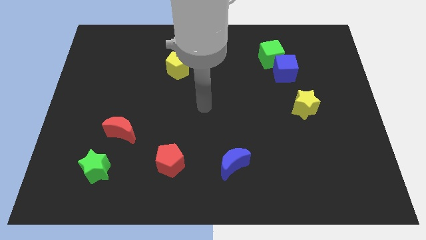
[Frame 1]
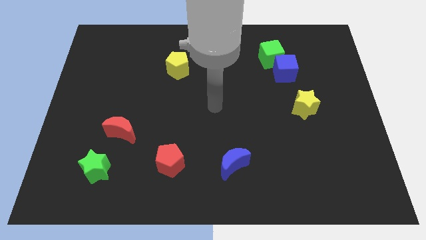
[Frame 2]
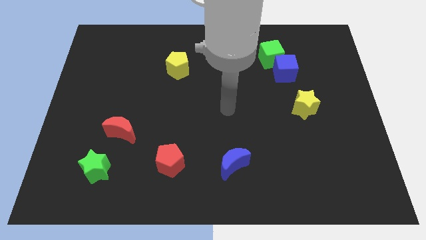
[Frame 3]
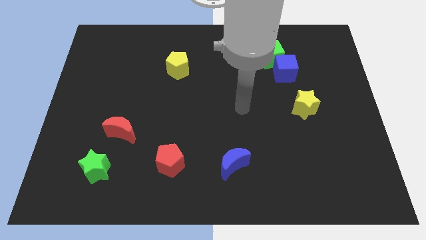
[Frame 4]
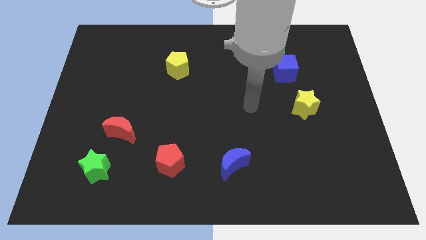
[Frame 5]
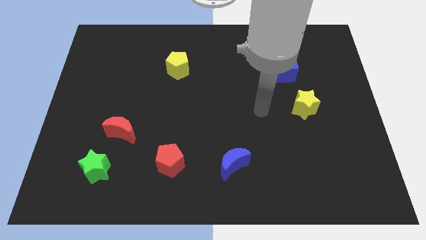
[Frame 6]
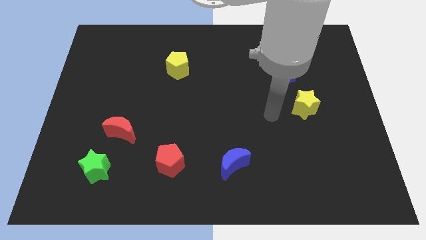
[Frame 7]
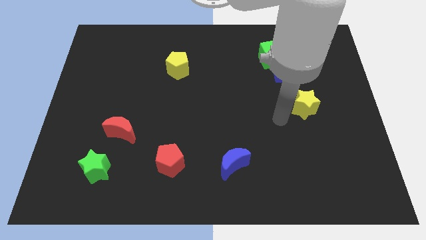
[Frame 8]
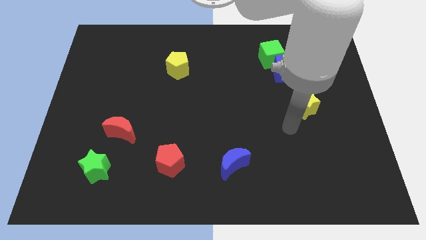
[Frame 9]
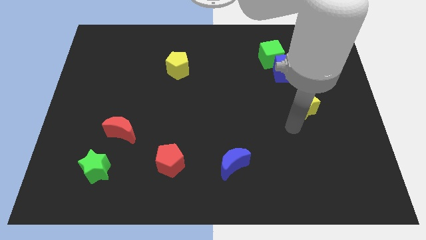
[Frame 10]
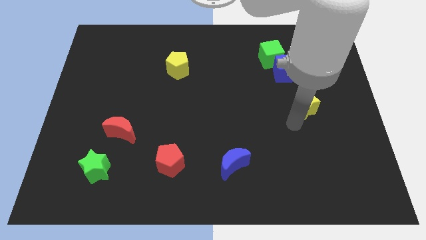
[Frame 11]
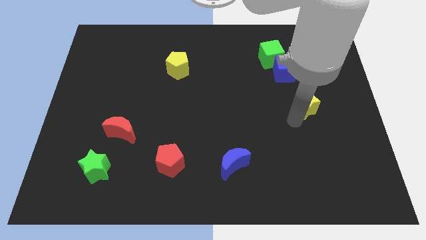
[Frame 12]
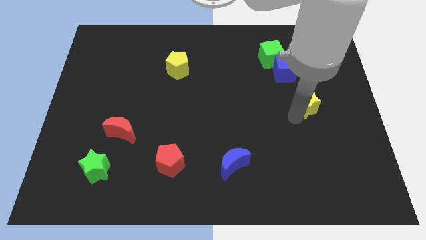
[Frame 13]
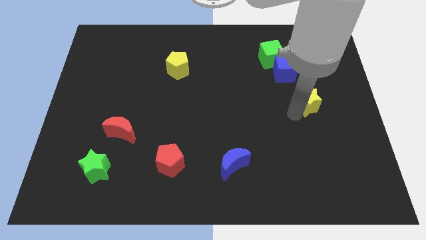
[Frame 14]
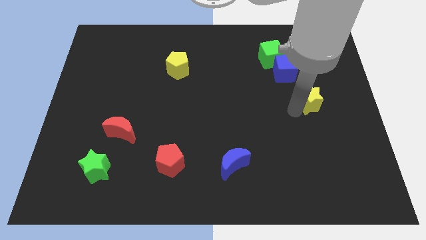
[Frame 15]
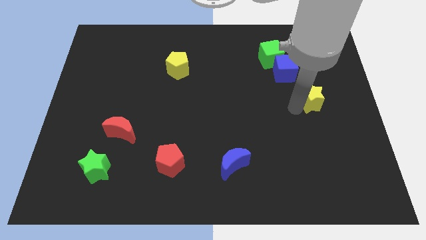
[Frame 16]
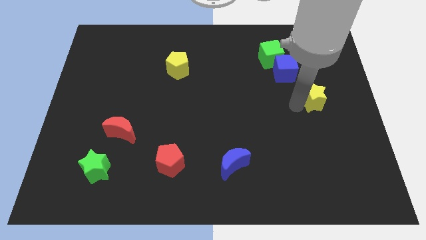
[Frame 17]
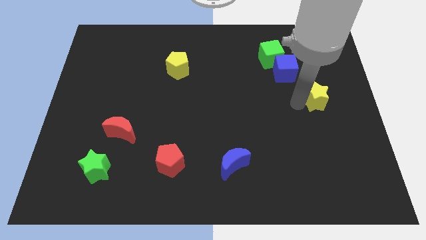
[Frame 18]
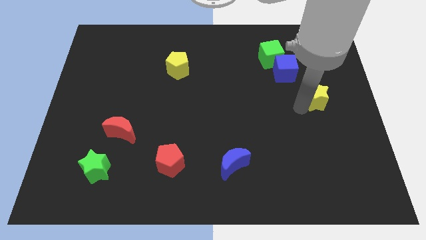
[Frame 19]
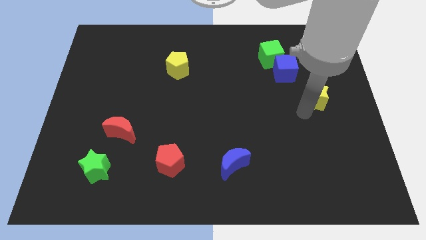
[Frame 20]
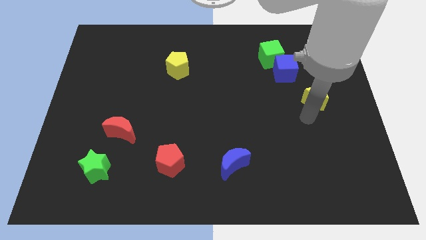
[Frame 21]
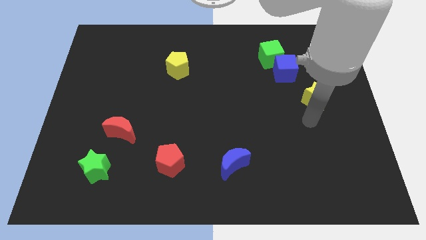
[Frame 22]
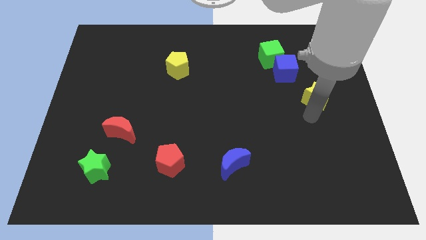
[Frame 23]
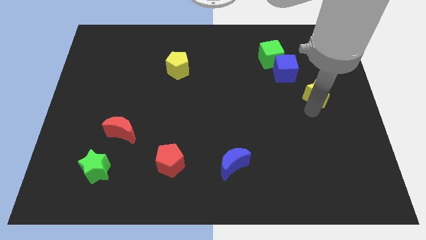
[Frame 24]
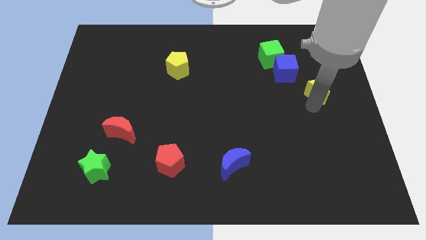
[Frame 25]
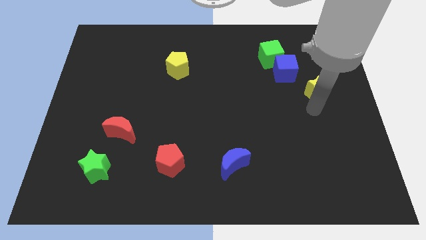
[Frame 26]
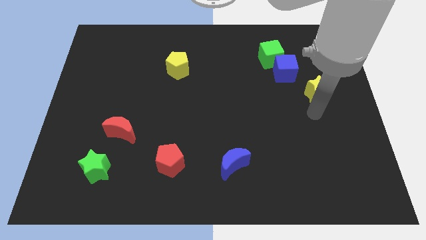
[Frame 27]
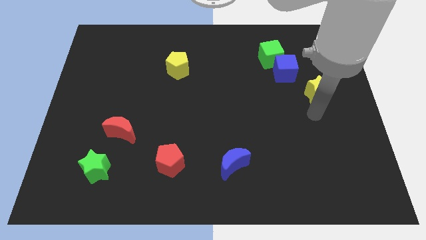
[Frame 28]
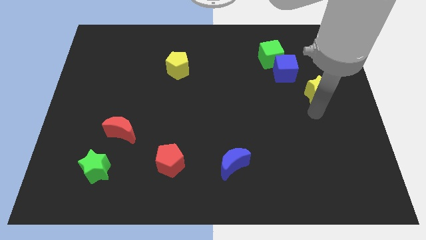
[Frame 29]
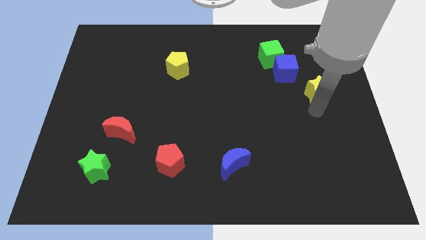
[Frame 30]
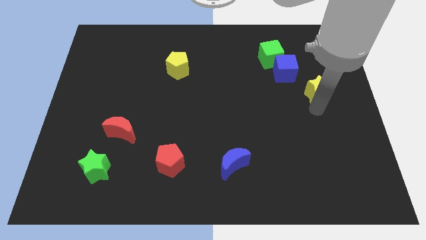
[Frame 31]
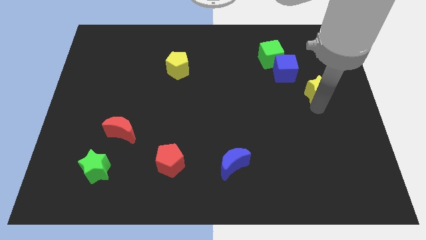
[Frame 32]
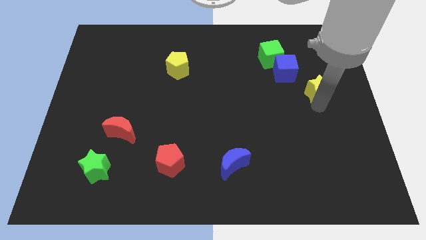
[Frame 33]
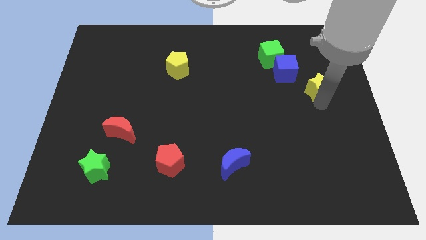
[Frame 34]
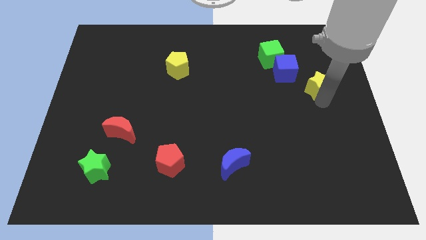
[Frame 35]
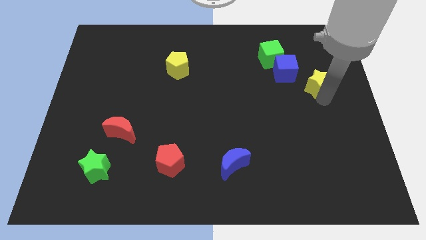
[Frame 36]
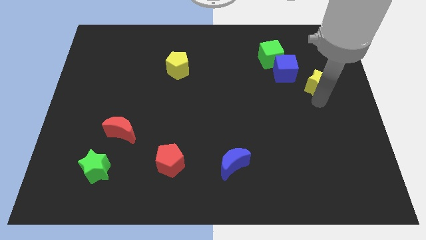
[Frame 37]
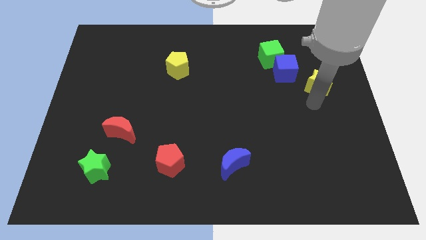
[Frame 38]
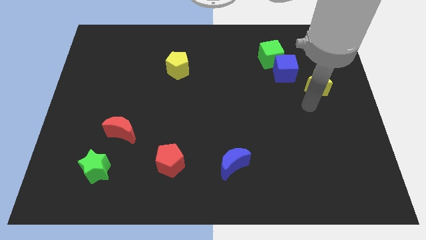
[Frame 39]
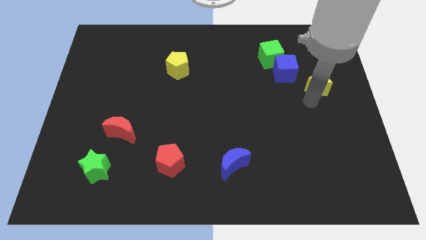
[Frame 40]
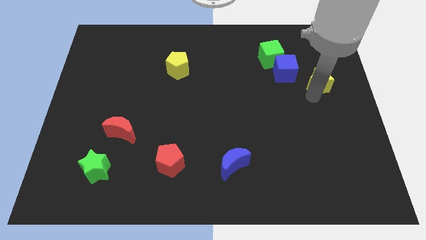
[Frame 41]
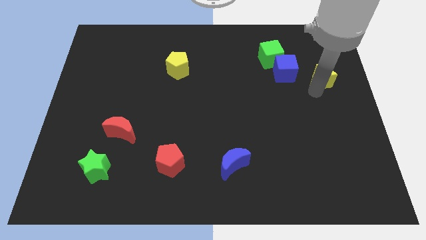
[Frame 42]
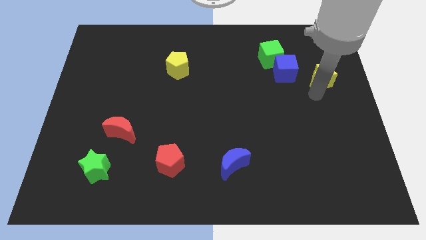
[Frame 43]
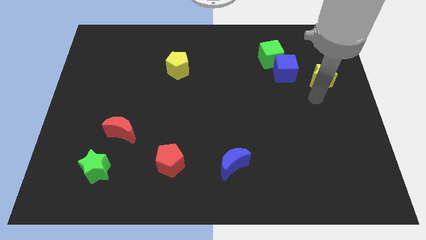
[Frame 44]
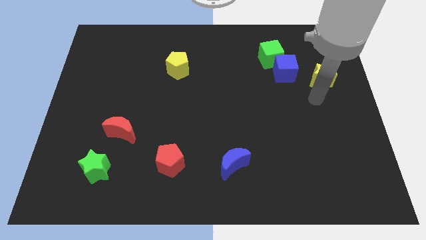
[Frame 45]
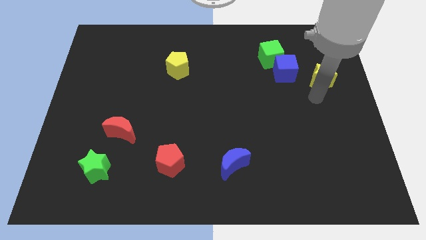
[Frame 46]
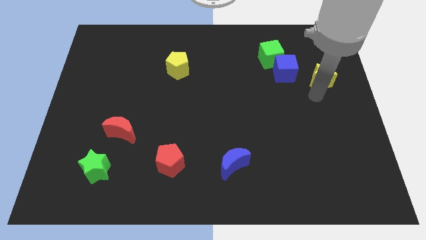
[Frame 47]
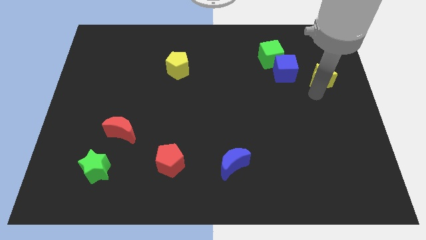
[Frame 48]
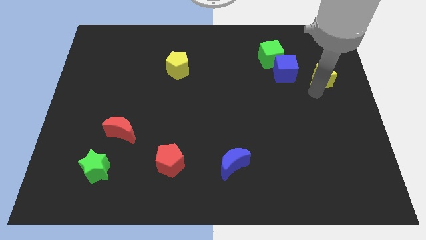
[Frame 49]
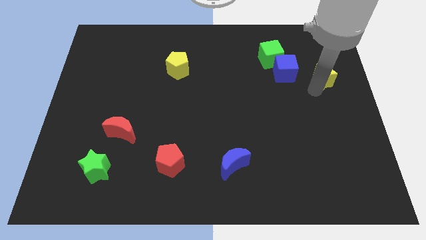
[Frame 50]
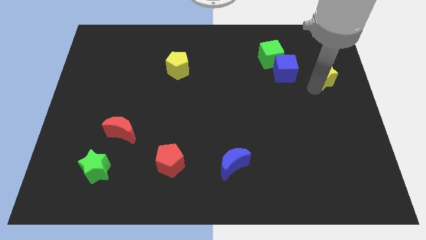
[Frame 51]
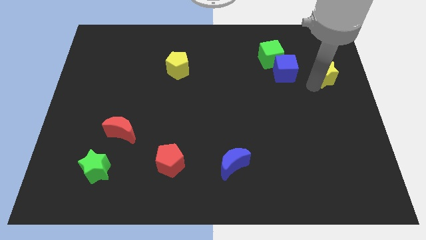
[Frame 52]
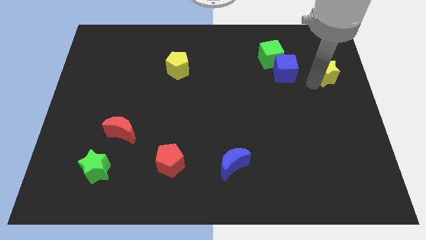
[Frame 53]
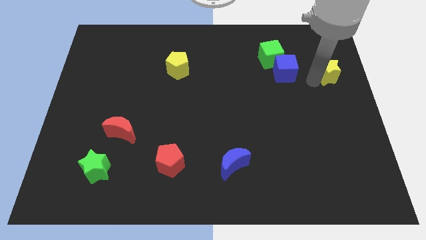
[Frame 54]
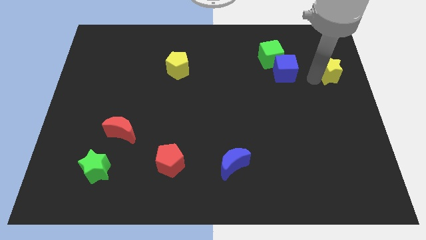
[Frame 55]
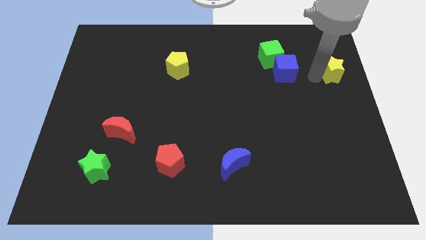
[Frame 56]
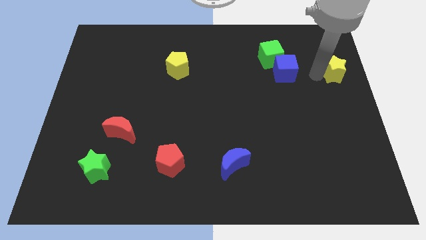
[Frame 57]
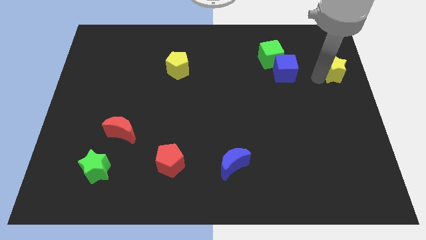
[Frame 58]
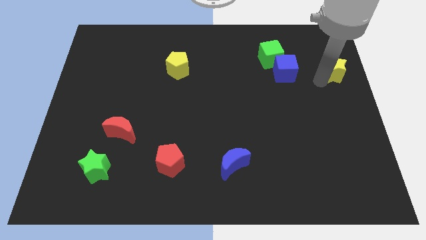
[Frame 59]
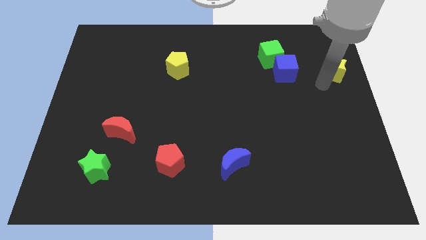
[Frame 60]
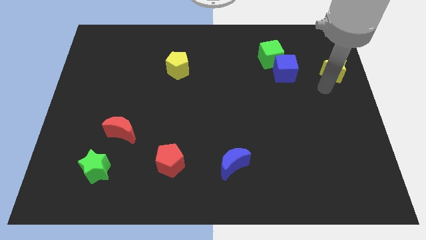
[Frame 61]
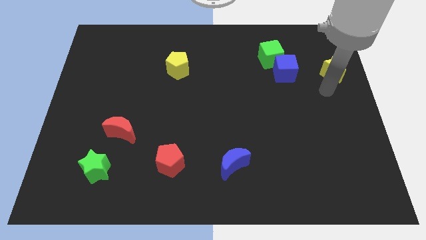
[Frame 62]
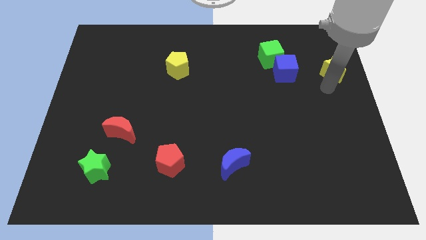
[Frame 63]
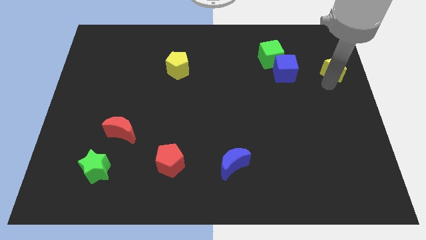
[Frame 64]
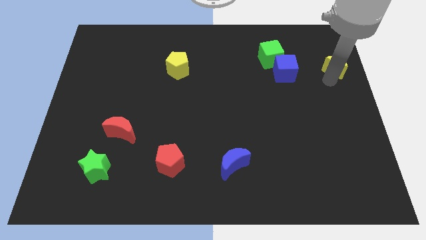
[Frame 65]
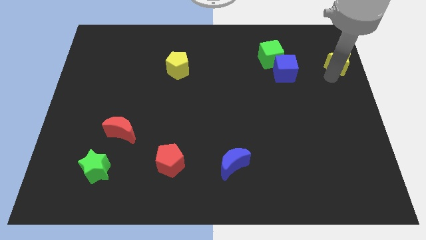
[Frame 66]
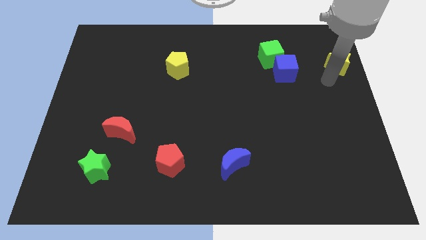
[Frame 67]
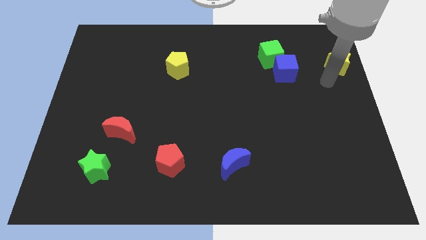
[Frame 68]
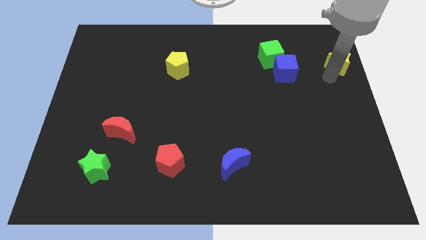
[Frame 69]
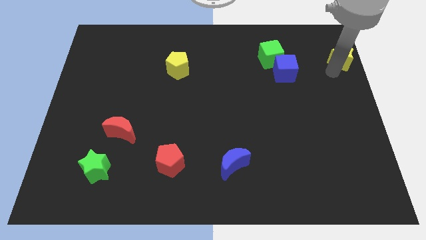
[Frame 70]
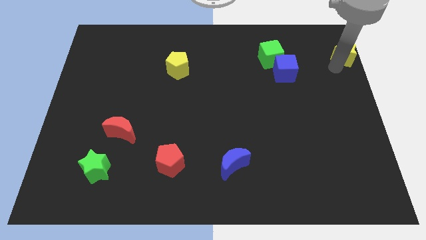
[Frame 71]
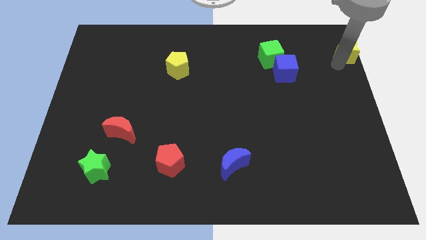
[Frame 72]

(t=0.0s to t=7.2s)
move the yellow star to the top right of the board
